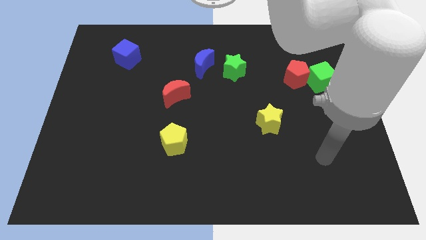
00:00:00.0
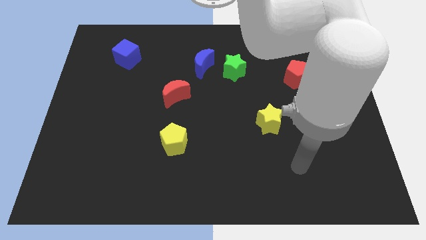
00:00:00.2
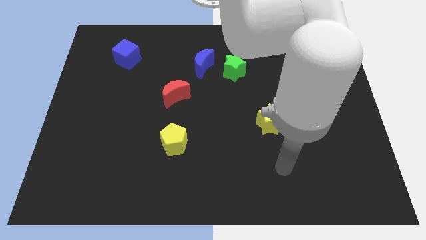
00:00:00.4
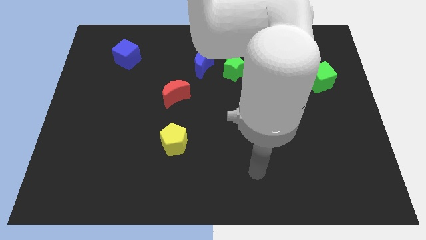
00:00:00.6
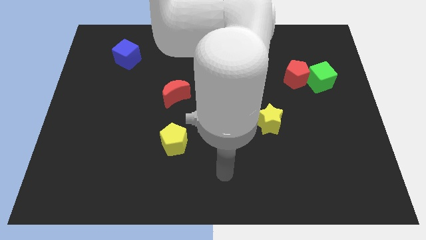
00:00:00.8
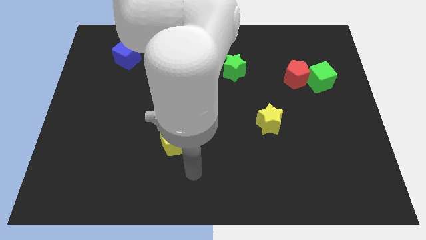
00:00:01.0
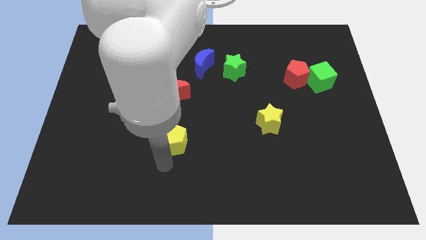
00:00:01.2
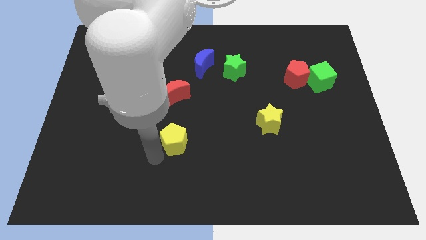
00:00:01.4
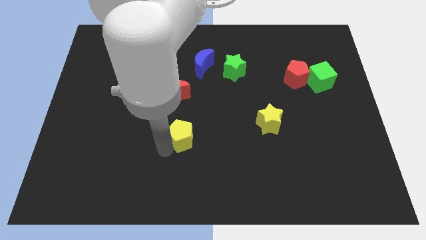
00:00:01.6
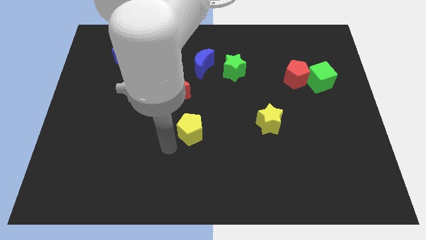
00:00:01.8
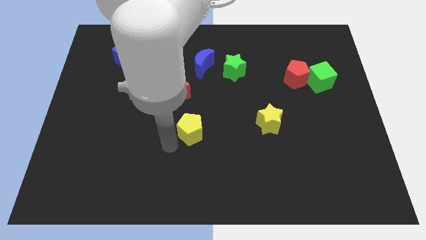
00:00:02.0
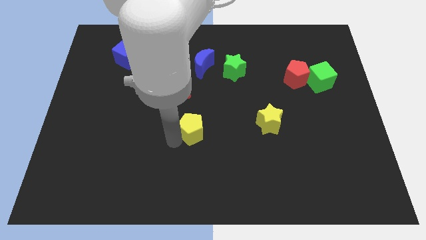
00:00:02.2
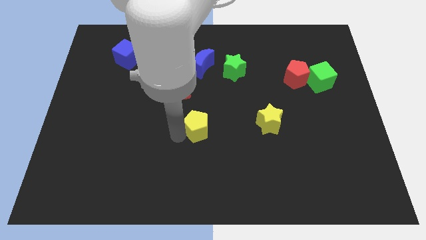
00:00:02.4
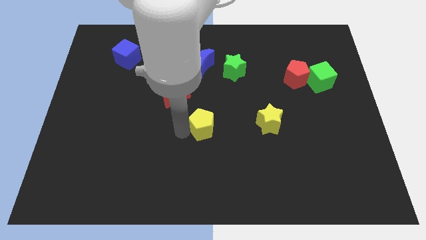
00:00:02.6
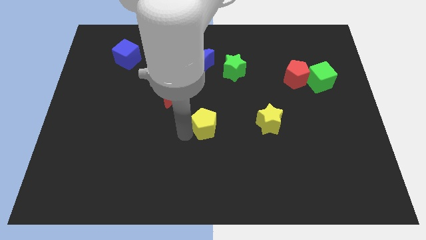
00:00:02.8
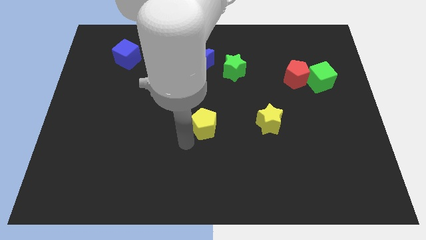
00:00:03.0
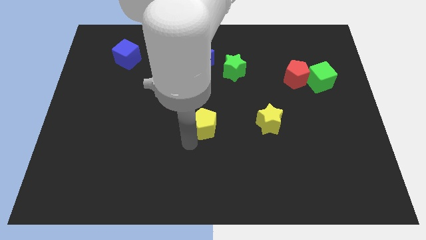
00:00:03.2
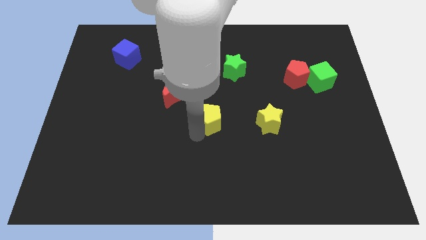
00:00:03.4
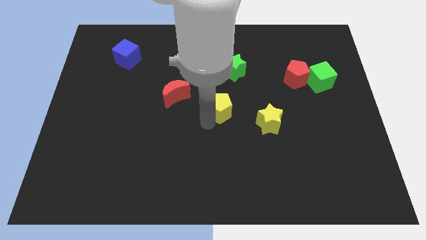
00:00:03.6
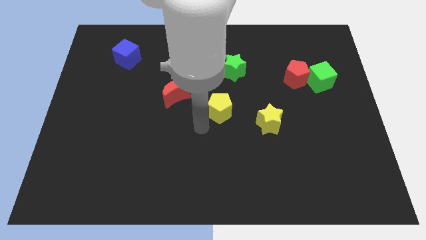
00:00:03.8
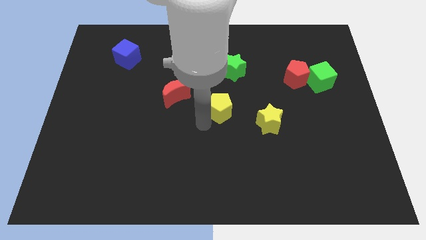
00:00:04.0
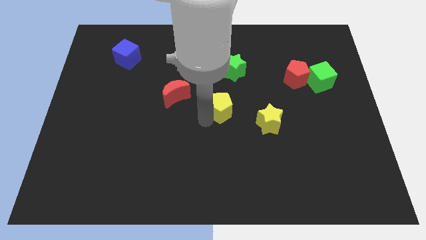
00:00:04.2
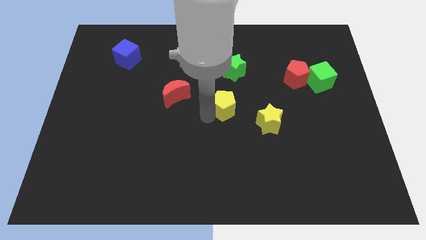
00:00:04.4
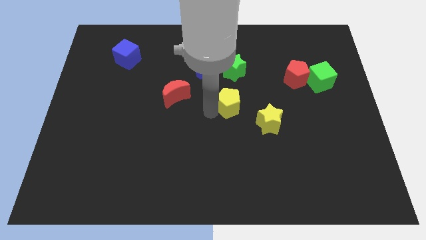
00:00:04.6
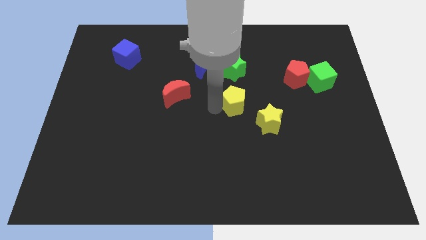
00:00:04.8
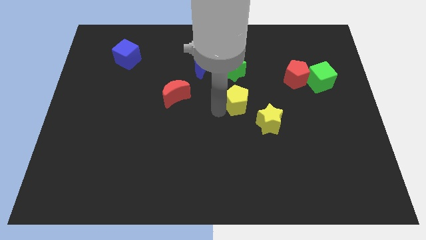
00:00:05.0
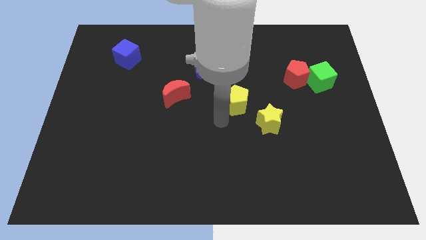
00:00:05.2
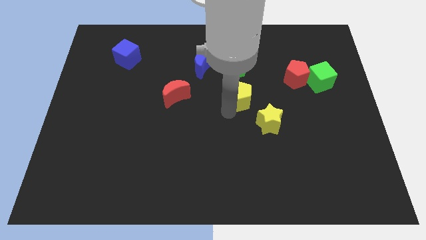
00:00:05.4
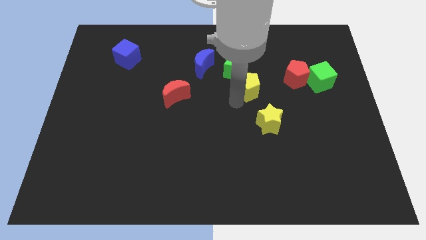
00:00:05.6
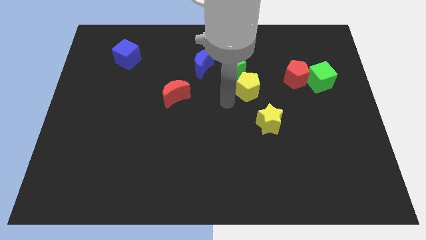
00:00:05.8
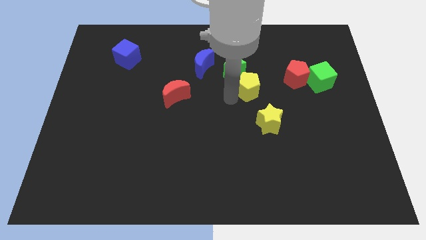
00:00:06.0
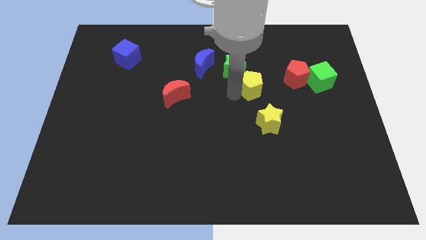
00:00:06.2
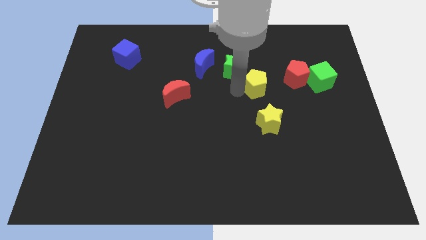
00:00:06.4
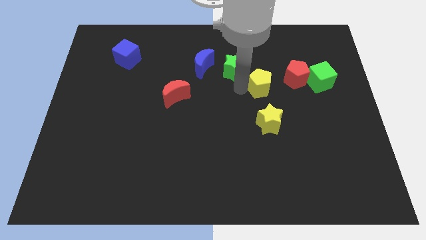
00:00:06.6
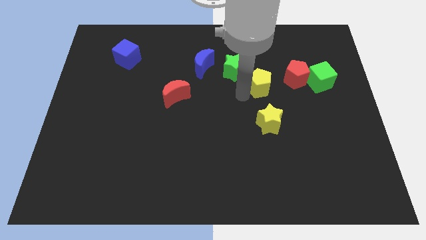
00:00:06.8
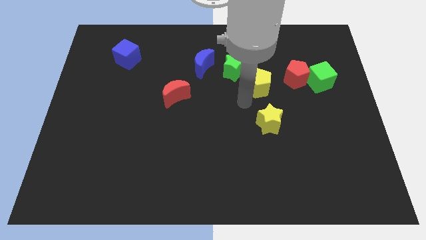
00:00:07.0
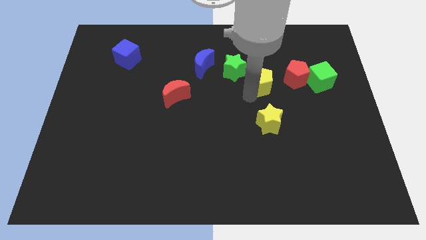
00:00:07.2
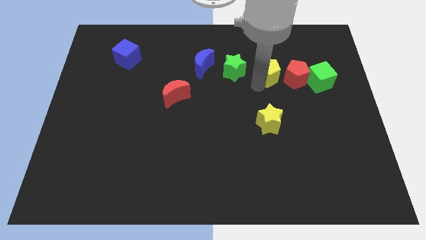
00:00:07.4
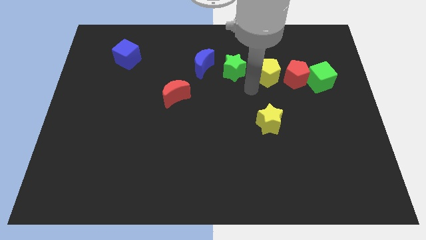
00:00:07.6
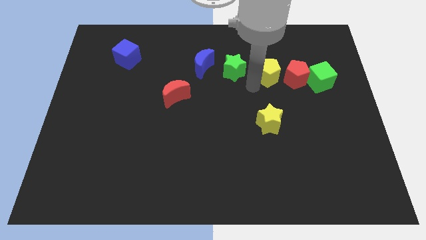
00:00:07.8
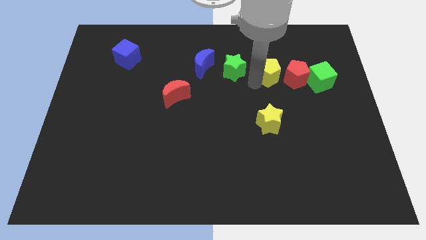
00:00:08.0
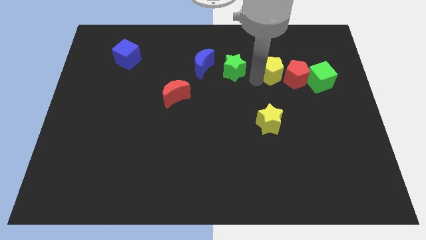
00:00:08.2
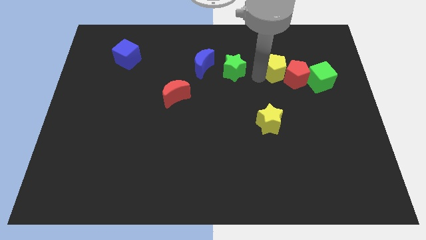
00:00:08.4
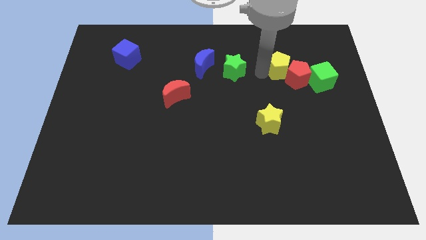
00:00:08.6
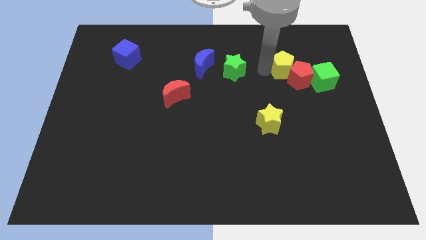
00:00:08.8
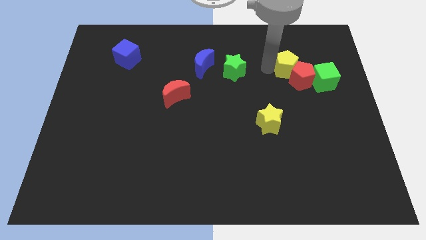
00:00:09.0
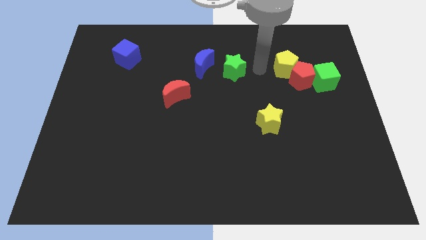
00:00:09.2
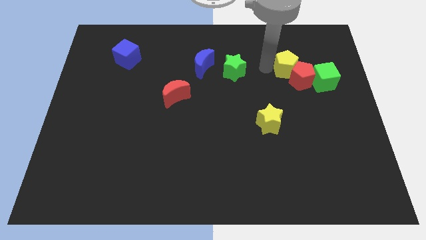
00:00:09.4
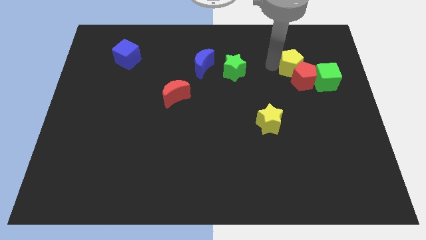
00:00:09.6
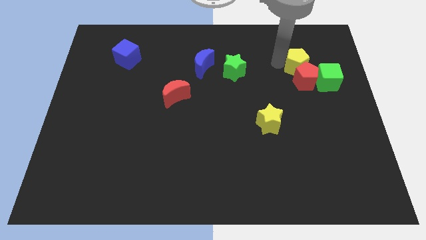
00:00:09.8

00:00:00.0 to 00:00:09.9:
move the yellow pentagon to the top right side of the red pentagon

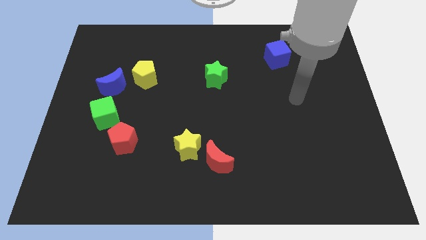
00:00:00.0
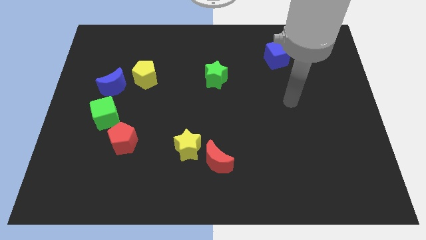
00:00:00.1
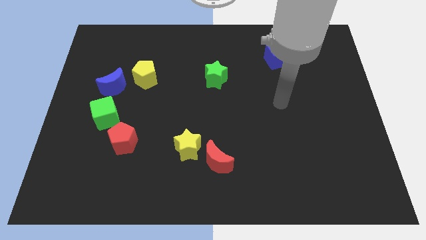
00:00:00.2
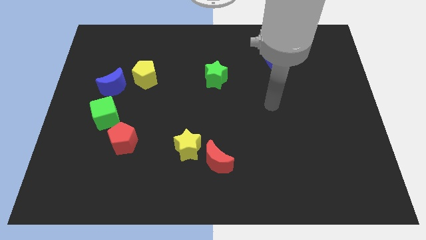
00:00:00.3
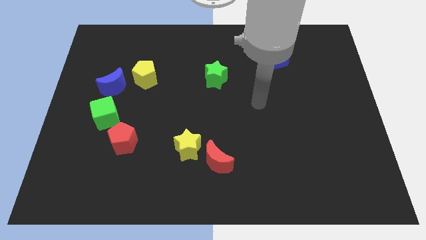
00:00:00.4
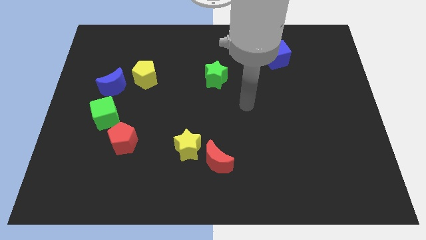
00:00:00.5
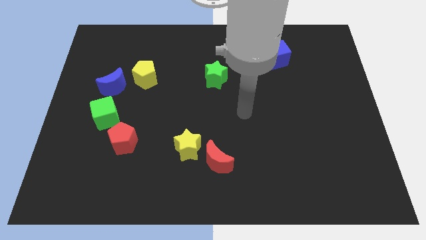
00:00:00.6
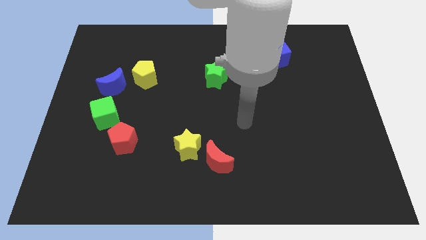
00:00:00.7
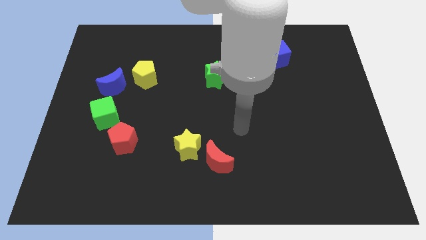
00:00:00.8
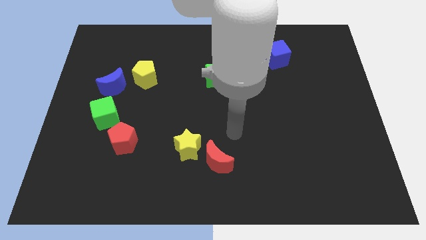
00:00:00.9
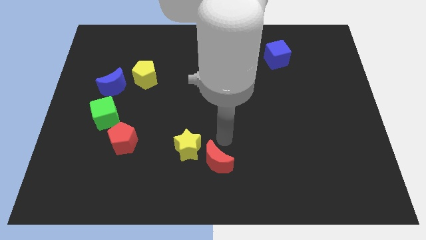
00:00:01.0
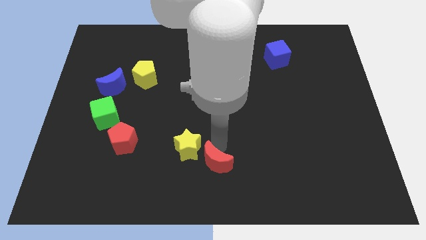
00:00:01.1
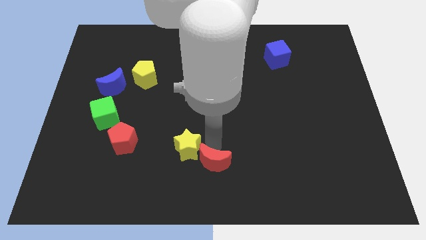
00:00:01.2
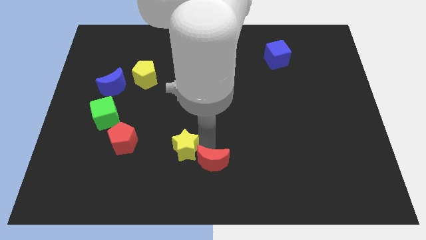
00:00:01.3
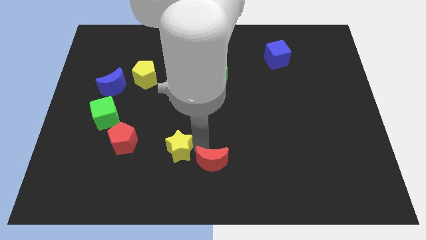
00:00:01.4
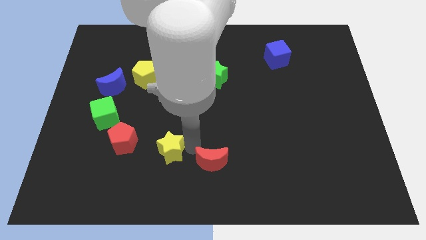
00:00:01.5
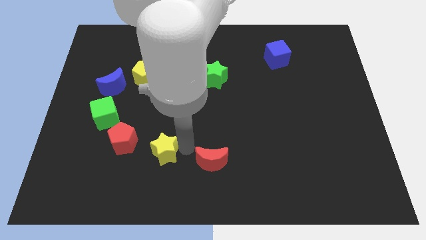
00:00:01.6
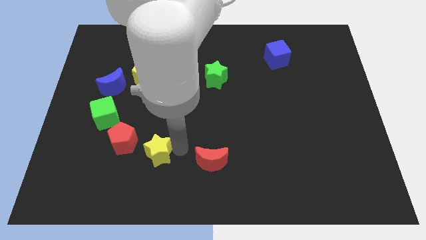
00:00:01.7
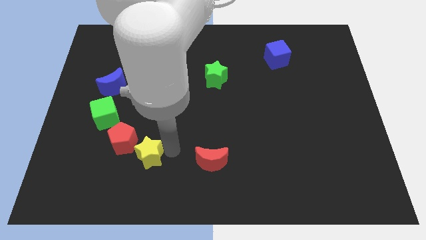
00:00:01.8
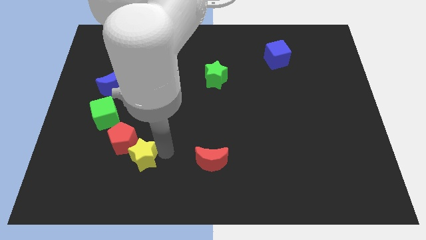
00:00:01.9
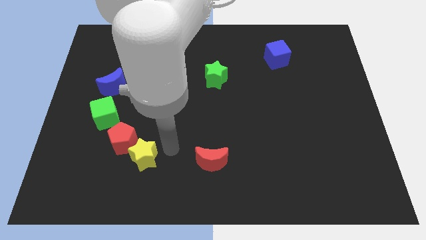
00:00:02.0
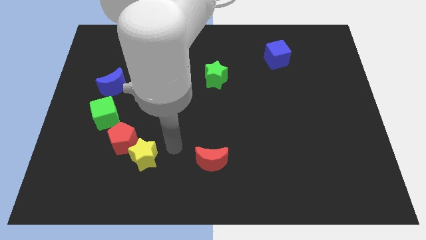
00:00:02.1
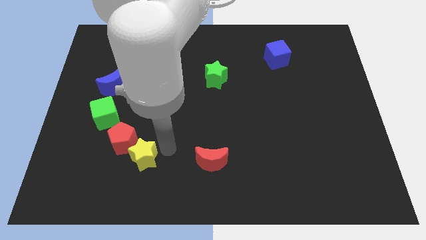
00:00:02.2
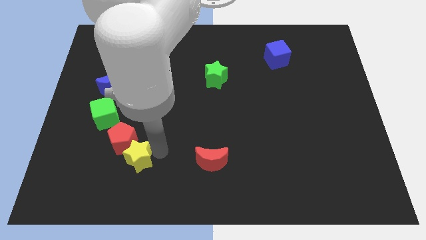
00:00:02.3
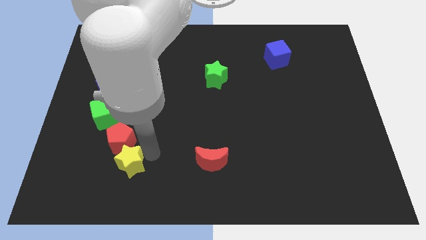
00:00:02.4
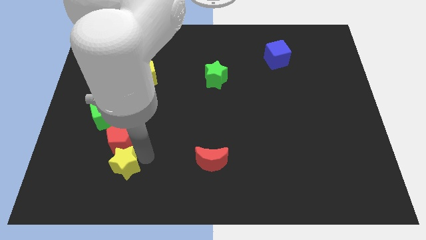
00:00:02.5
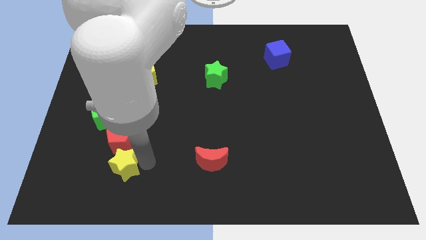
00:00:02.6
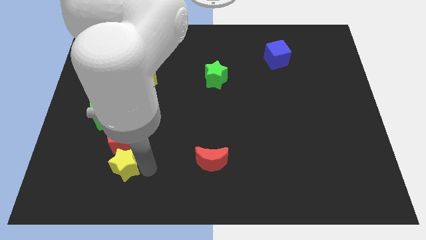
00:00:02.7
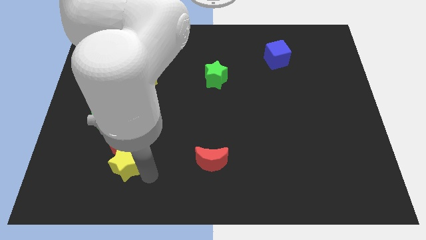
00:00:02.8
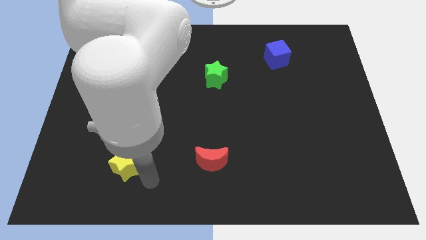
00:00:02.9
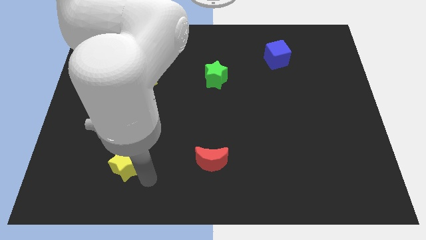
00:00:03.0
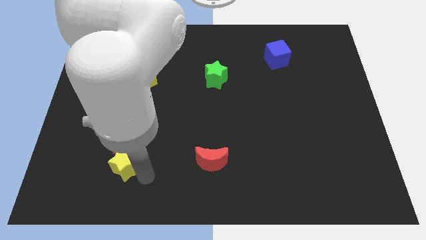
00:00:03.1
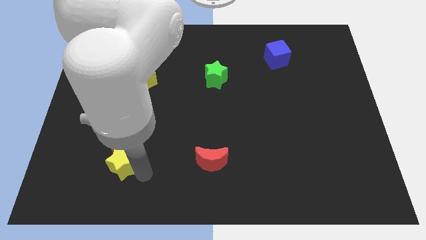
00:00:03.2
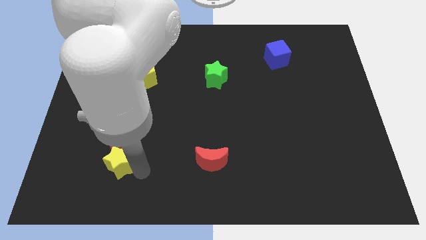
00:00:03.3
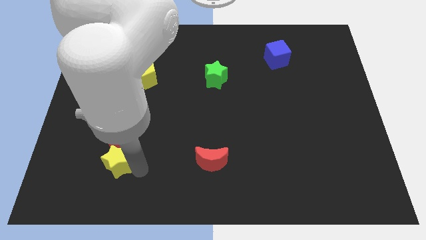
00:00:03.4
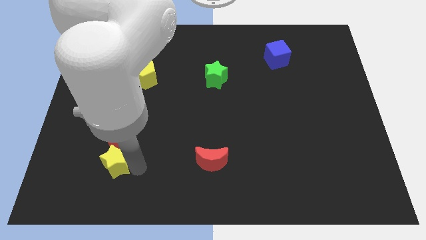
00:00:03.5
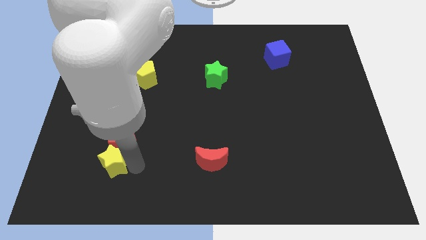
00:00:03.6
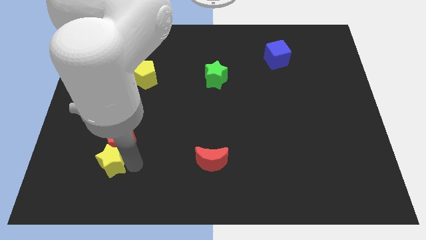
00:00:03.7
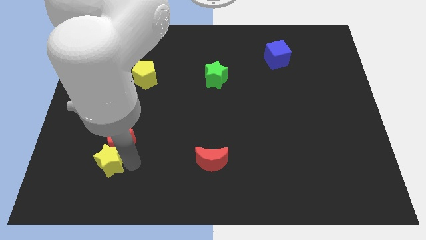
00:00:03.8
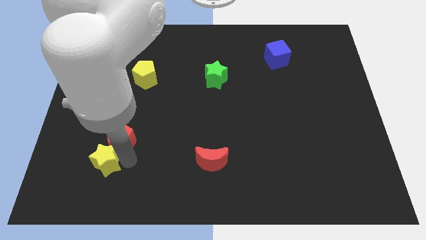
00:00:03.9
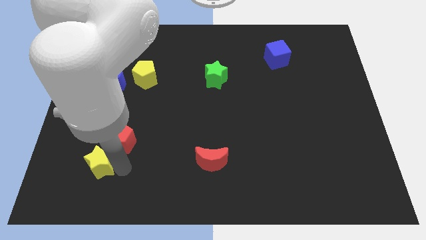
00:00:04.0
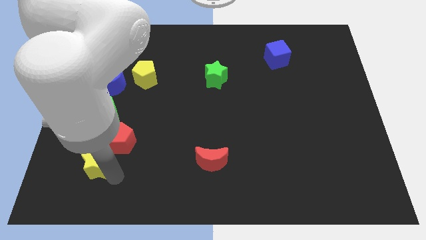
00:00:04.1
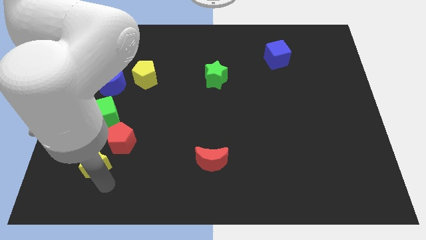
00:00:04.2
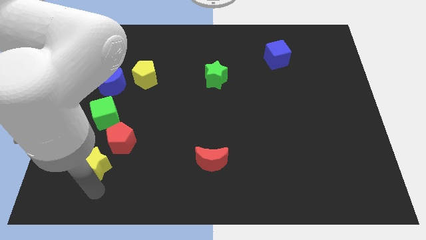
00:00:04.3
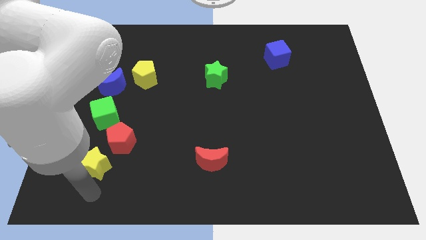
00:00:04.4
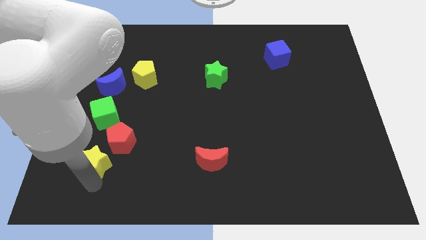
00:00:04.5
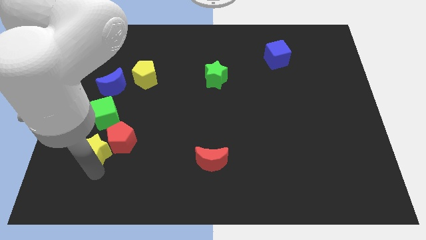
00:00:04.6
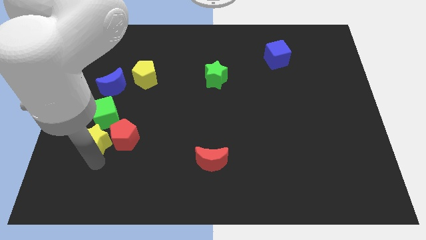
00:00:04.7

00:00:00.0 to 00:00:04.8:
put the yellow star to the bottom of the blue moon
